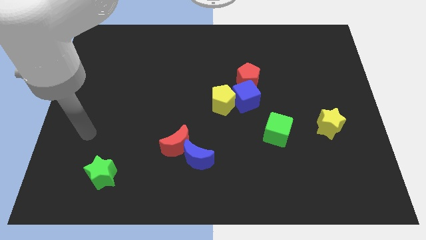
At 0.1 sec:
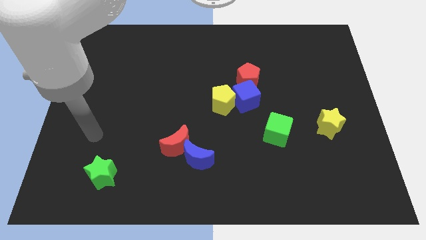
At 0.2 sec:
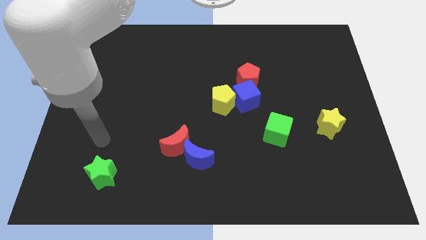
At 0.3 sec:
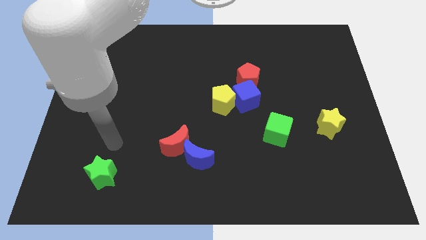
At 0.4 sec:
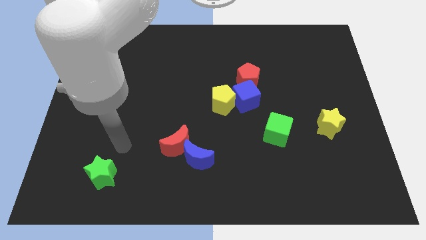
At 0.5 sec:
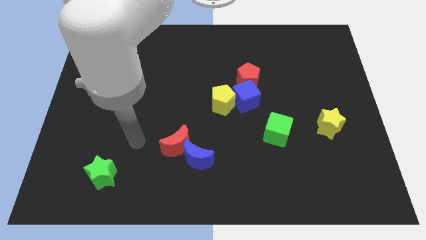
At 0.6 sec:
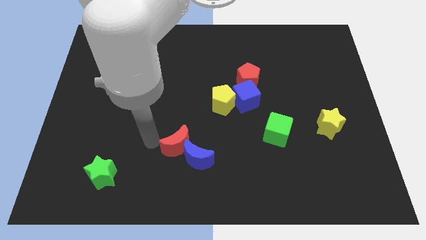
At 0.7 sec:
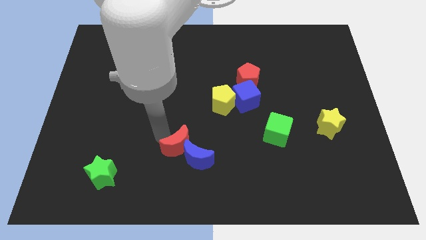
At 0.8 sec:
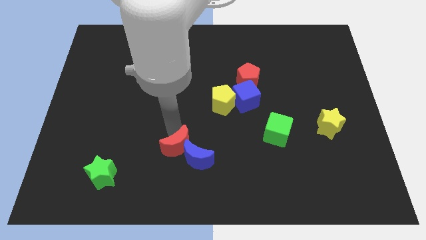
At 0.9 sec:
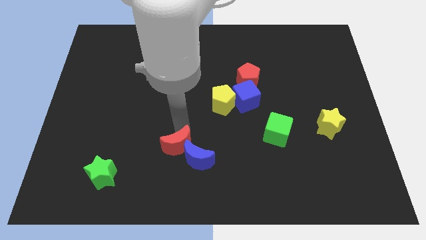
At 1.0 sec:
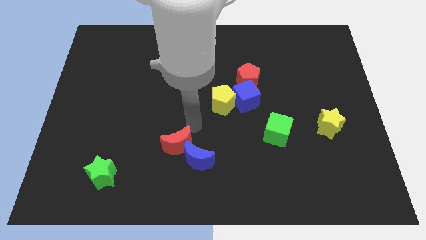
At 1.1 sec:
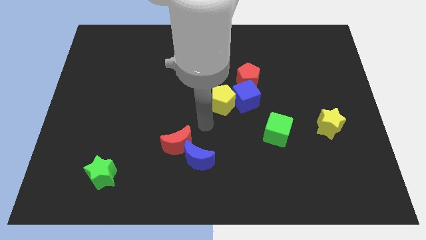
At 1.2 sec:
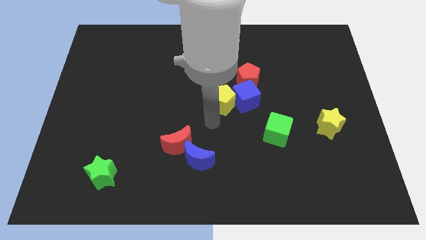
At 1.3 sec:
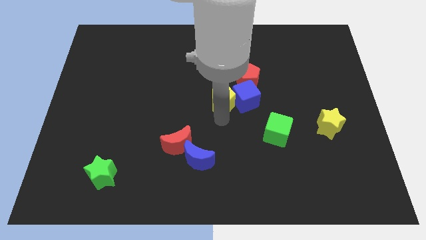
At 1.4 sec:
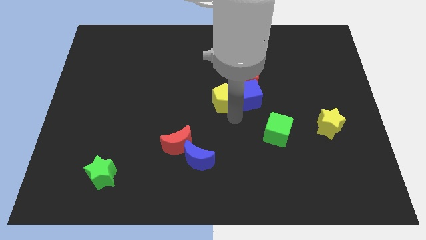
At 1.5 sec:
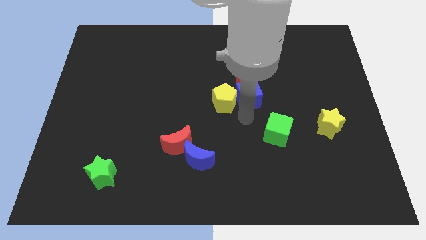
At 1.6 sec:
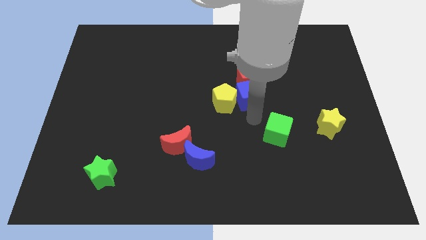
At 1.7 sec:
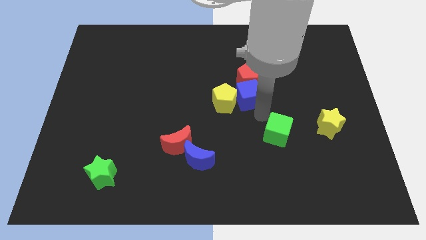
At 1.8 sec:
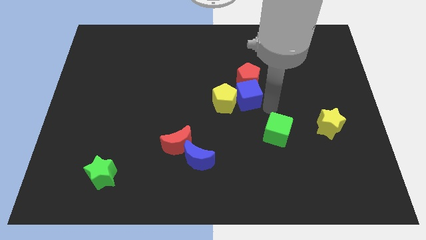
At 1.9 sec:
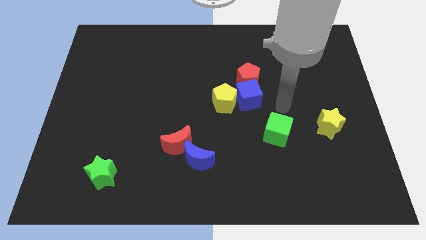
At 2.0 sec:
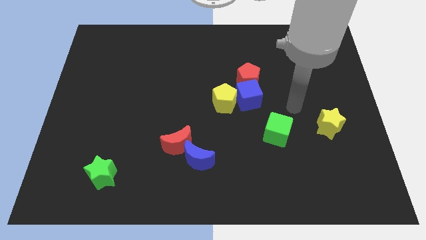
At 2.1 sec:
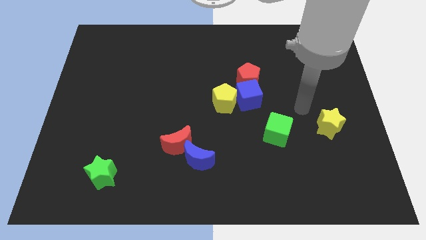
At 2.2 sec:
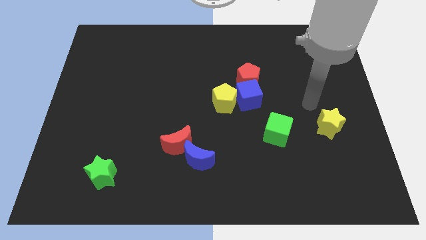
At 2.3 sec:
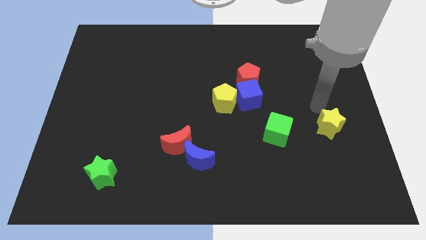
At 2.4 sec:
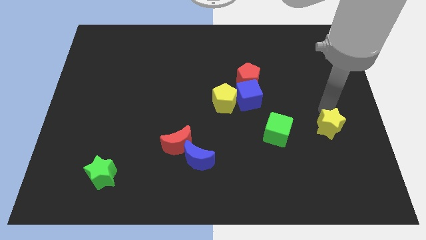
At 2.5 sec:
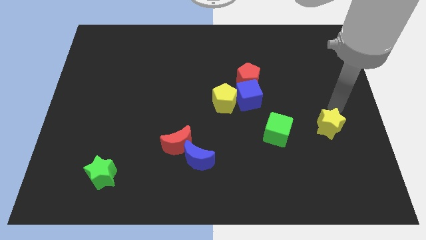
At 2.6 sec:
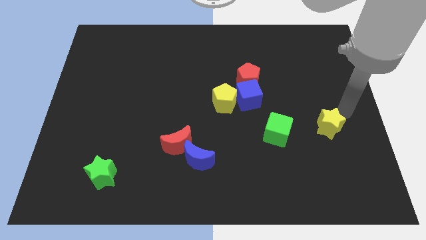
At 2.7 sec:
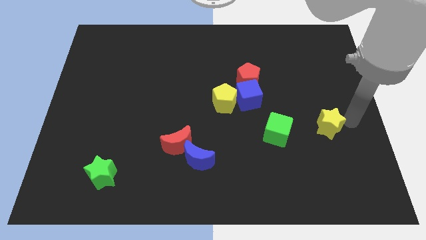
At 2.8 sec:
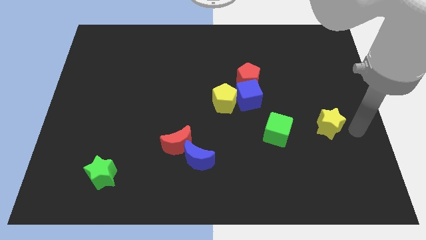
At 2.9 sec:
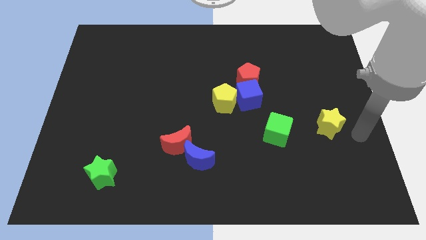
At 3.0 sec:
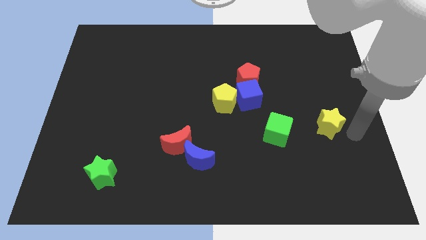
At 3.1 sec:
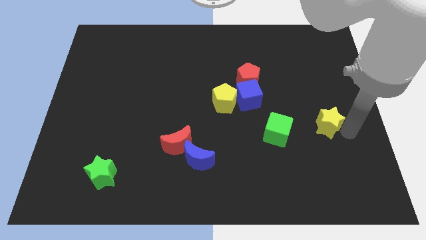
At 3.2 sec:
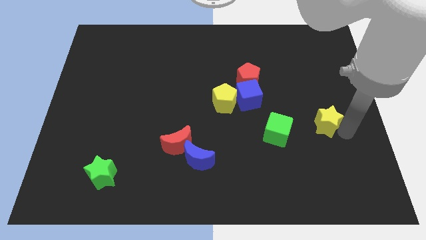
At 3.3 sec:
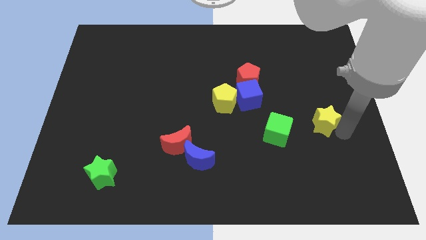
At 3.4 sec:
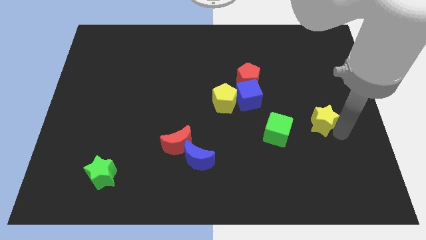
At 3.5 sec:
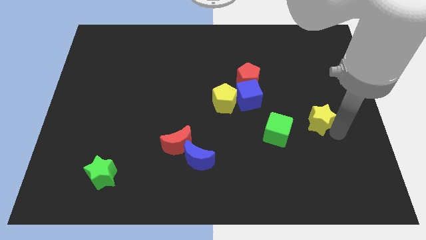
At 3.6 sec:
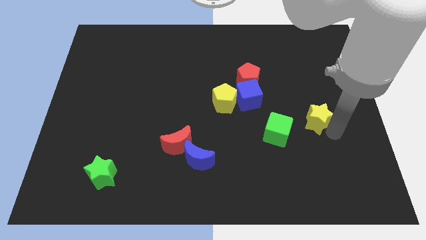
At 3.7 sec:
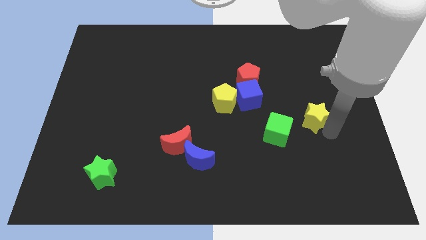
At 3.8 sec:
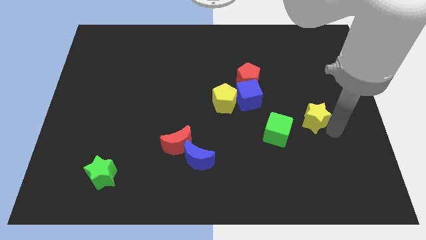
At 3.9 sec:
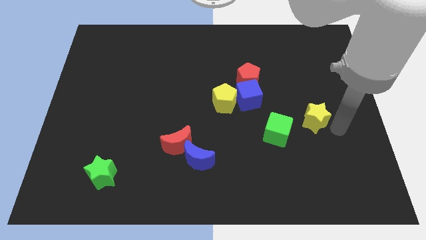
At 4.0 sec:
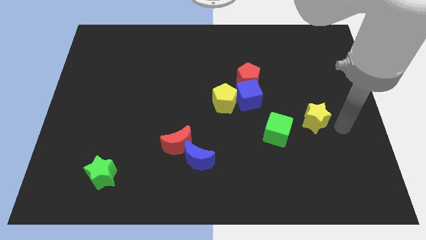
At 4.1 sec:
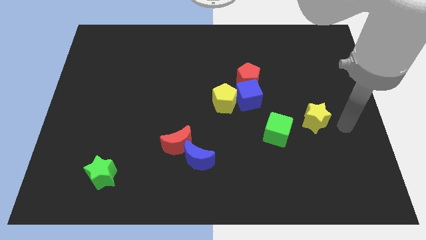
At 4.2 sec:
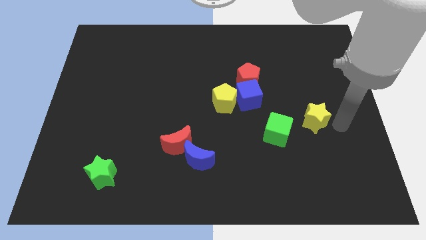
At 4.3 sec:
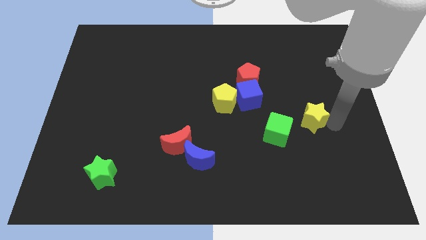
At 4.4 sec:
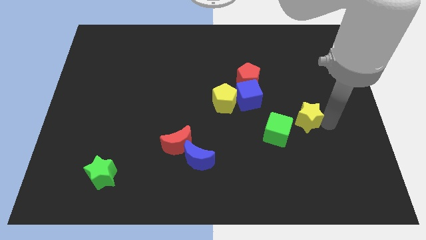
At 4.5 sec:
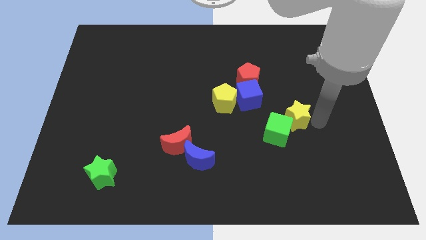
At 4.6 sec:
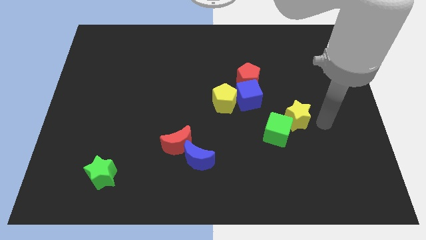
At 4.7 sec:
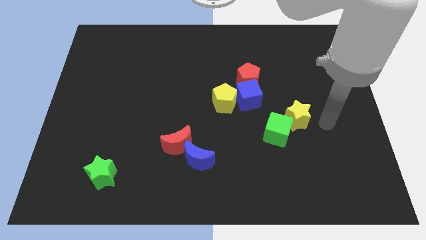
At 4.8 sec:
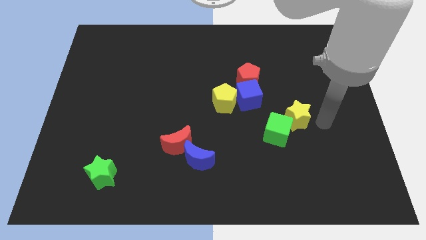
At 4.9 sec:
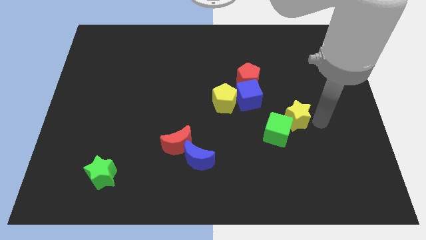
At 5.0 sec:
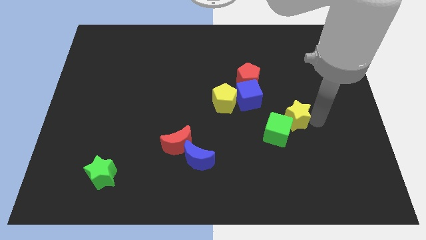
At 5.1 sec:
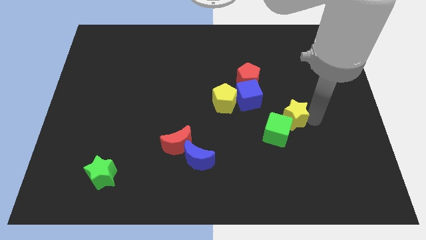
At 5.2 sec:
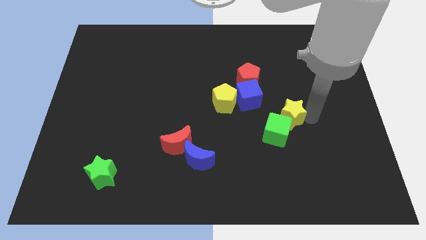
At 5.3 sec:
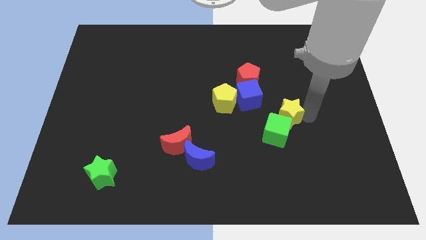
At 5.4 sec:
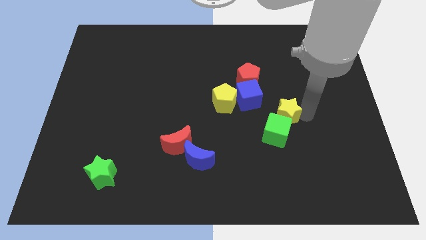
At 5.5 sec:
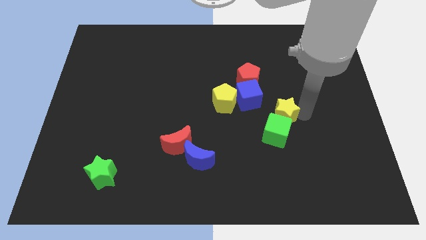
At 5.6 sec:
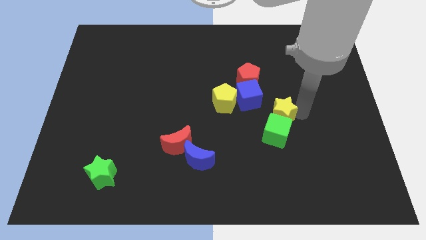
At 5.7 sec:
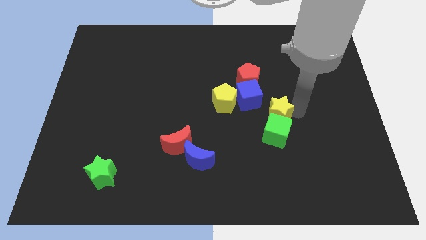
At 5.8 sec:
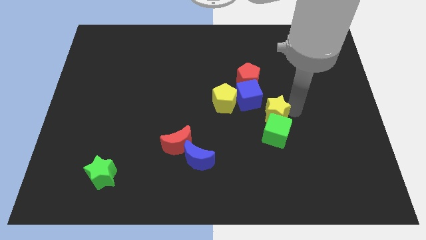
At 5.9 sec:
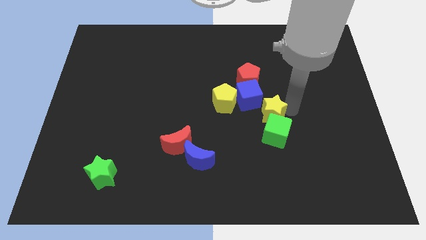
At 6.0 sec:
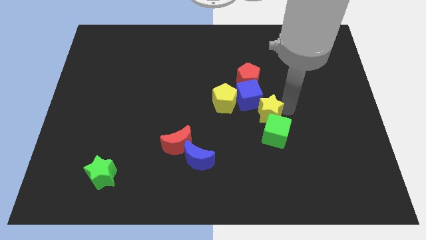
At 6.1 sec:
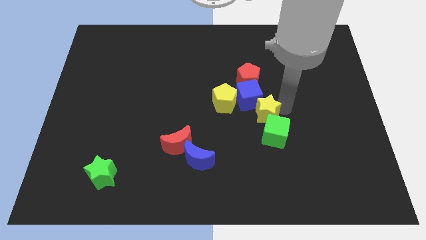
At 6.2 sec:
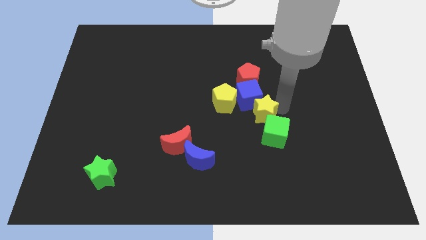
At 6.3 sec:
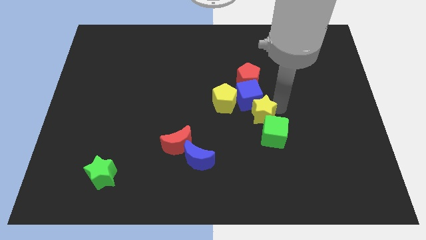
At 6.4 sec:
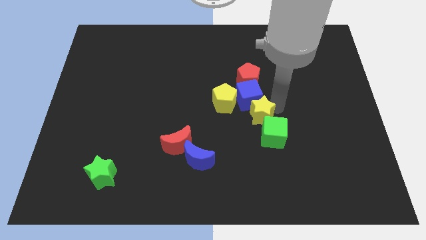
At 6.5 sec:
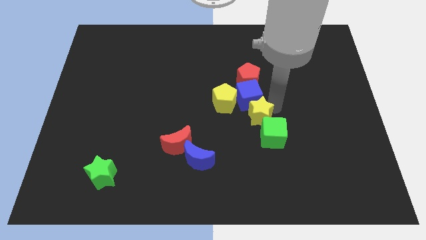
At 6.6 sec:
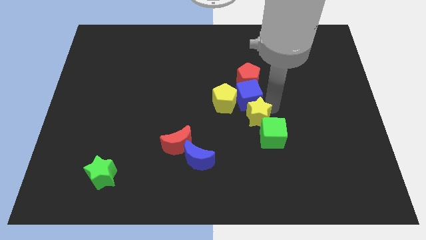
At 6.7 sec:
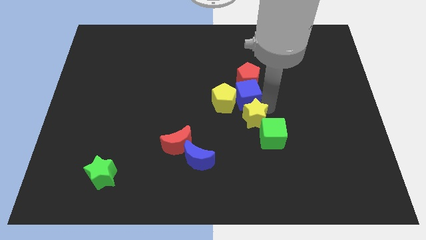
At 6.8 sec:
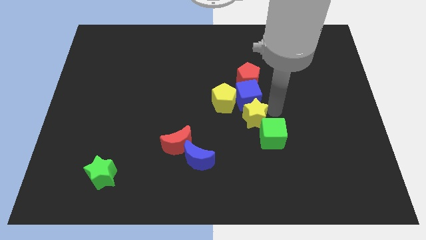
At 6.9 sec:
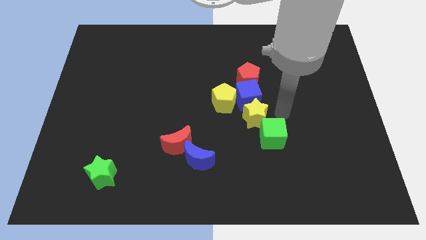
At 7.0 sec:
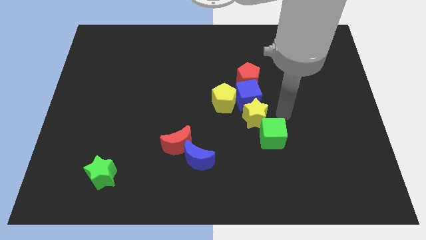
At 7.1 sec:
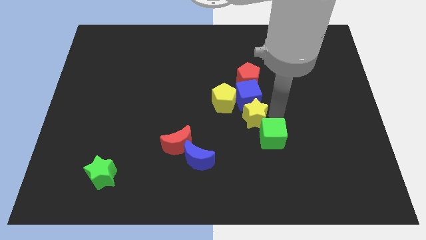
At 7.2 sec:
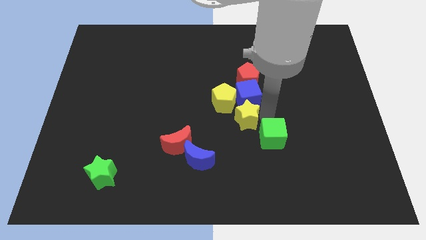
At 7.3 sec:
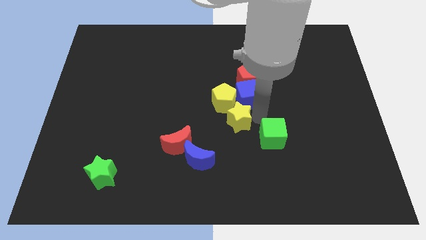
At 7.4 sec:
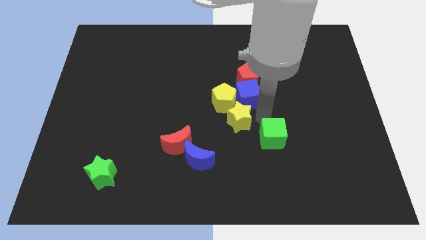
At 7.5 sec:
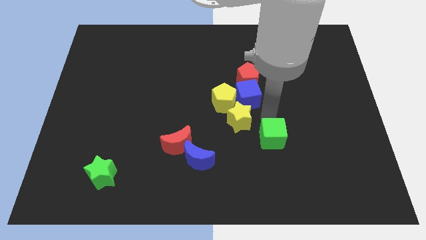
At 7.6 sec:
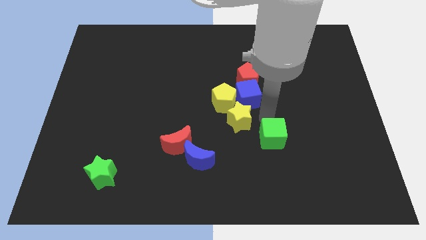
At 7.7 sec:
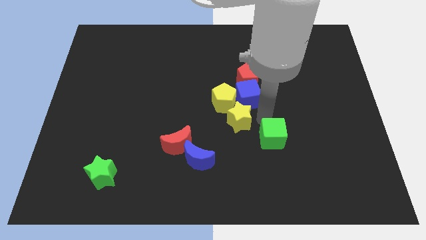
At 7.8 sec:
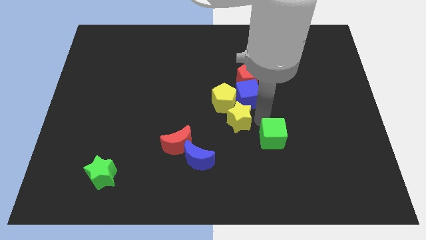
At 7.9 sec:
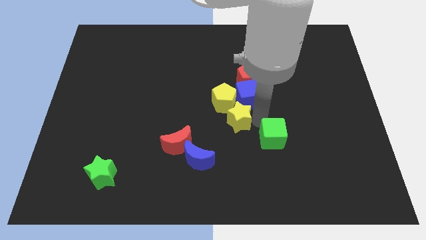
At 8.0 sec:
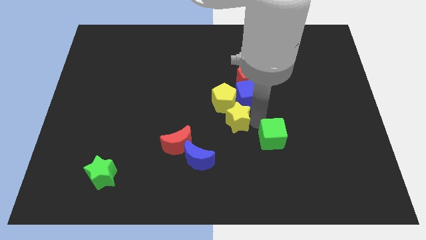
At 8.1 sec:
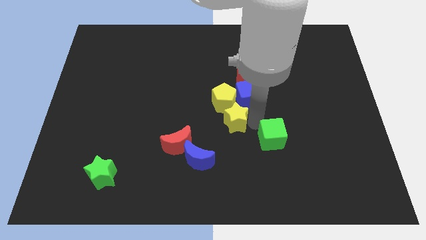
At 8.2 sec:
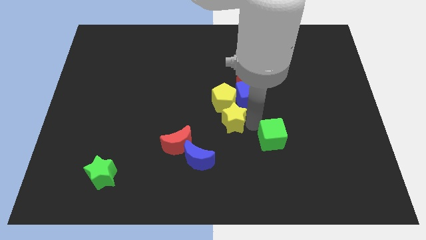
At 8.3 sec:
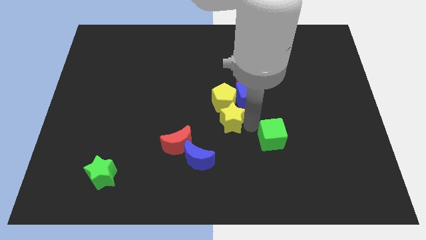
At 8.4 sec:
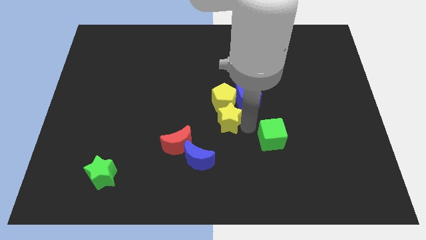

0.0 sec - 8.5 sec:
move the yellow star diagonally down and to the left of the yellow pentagon
